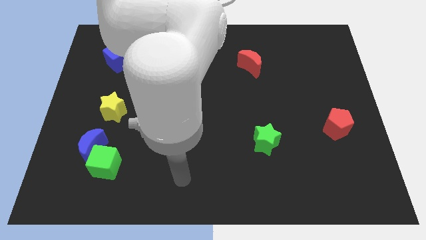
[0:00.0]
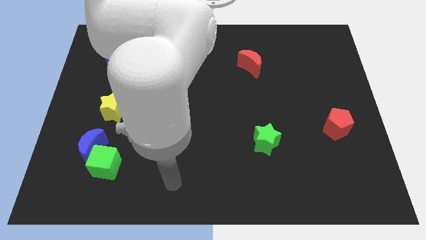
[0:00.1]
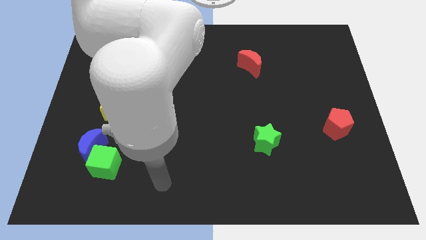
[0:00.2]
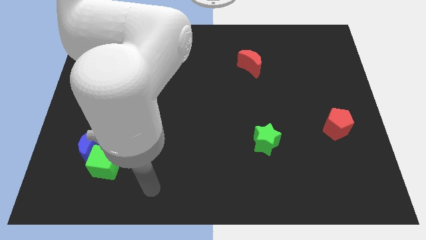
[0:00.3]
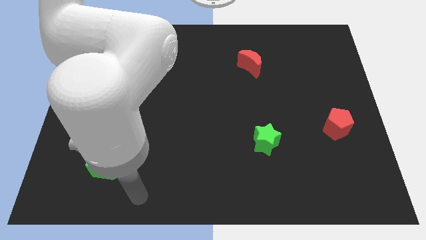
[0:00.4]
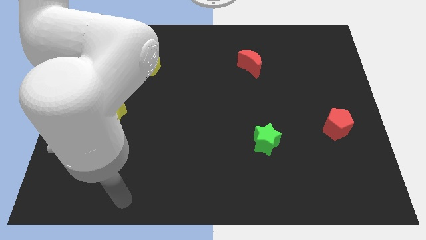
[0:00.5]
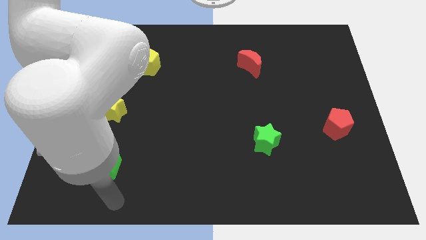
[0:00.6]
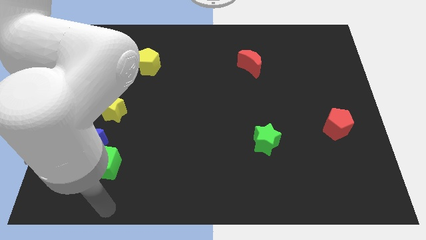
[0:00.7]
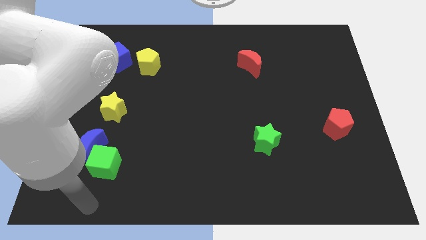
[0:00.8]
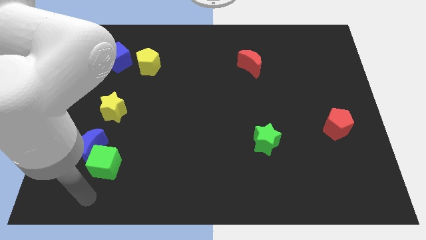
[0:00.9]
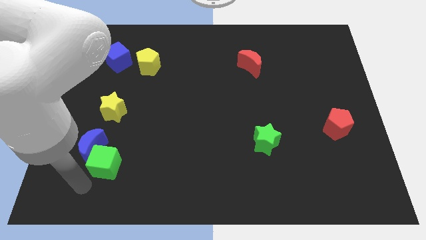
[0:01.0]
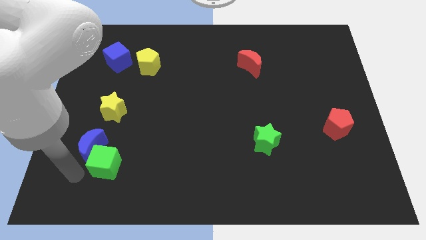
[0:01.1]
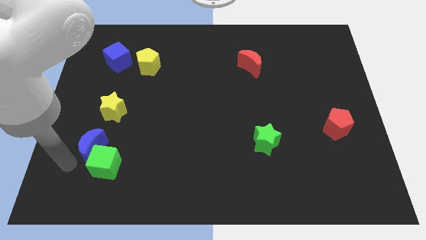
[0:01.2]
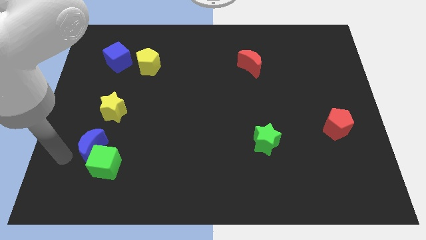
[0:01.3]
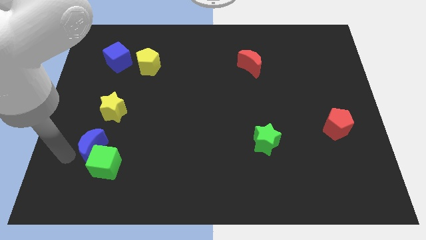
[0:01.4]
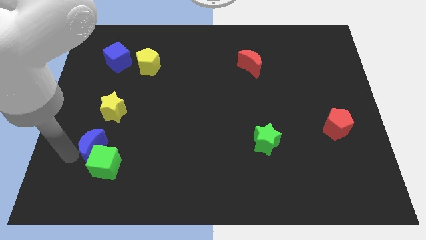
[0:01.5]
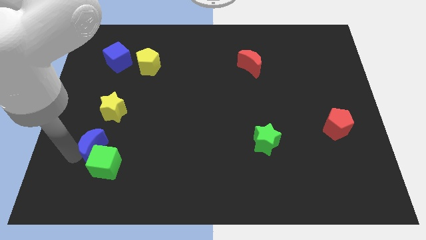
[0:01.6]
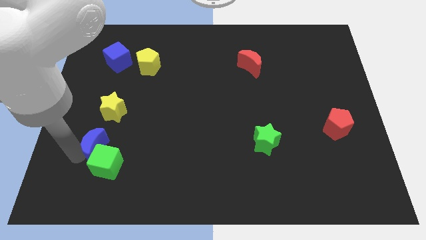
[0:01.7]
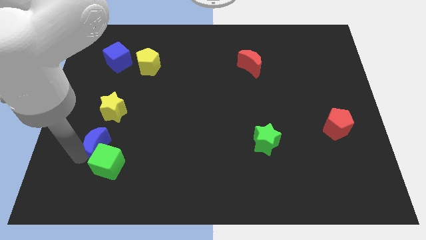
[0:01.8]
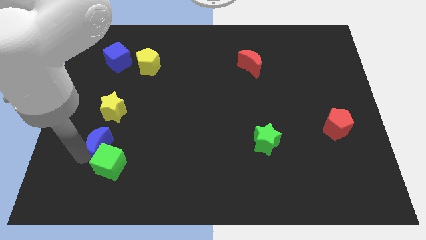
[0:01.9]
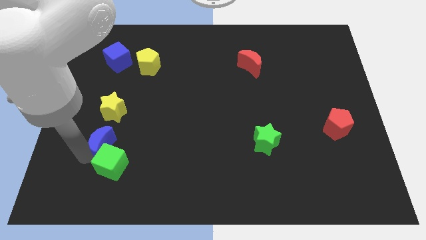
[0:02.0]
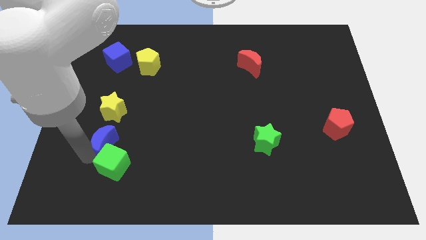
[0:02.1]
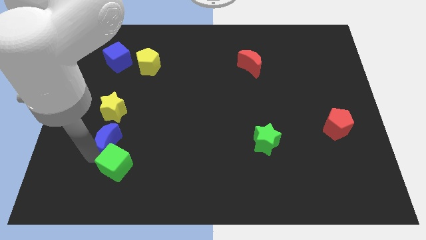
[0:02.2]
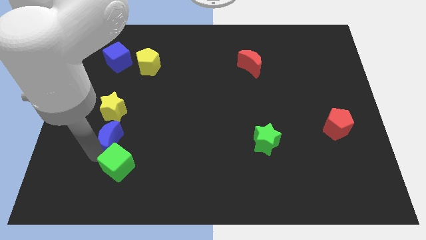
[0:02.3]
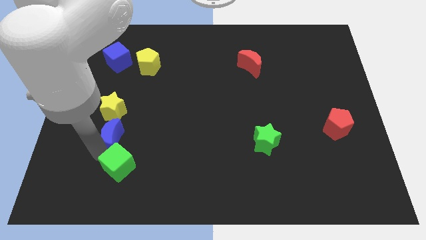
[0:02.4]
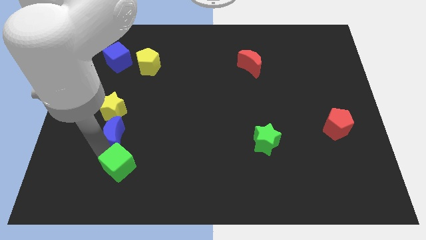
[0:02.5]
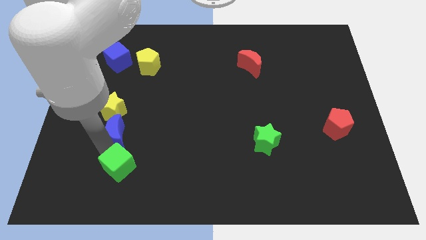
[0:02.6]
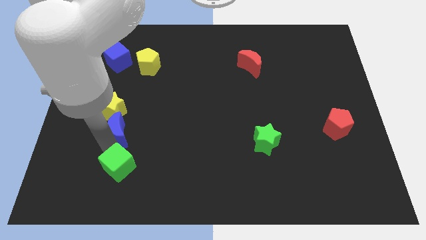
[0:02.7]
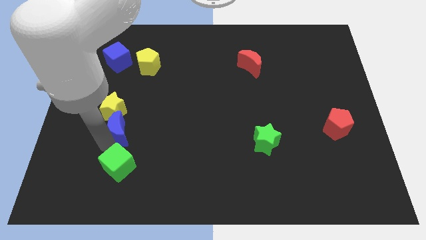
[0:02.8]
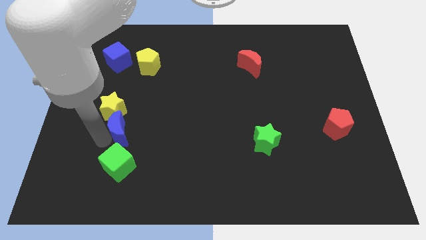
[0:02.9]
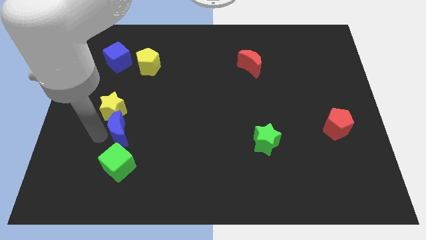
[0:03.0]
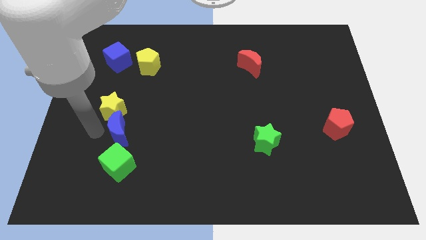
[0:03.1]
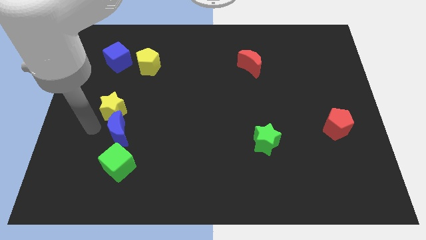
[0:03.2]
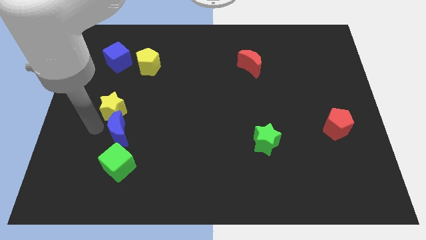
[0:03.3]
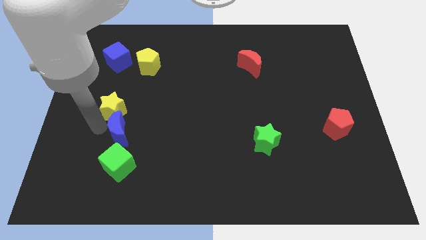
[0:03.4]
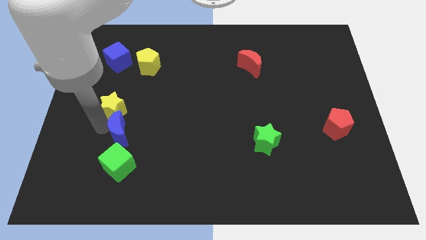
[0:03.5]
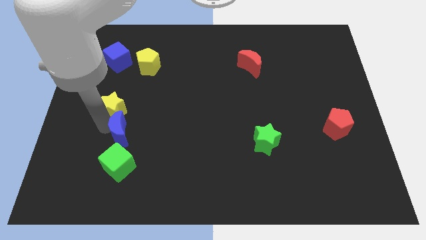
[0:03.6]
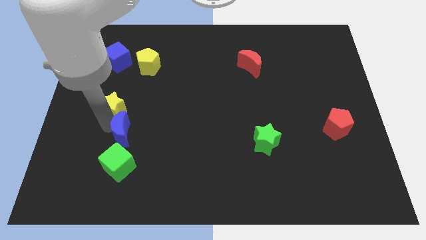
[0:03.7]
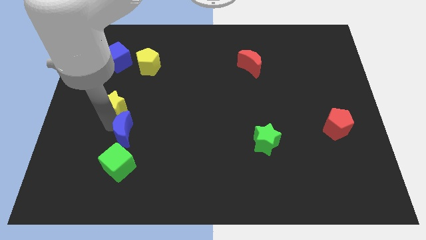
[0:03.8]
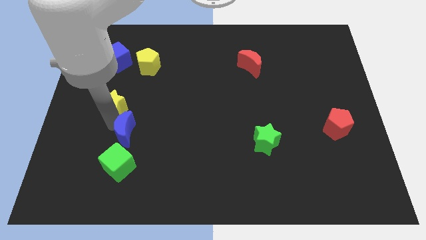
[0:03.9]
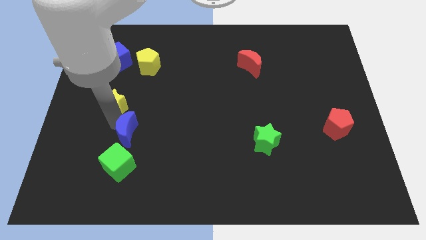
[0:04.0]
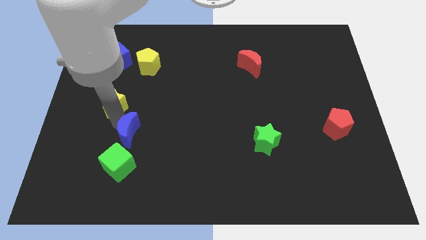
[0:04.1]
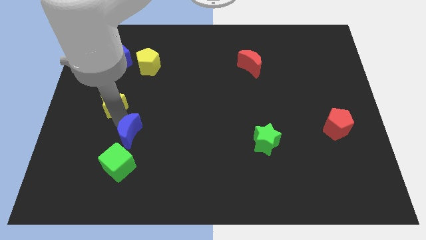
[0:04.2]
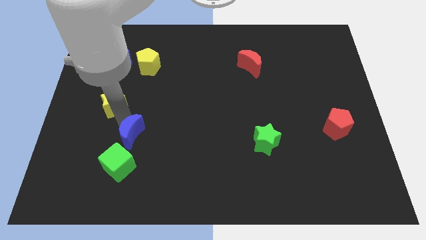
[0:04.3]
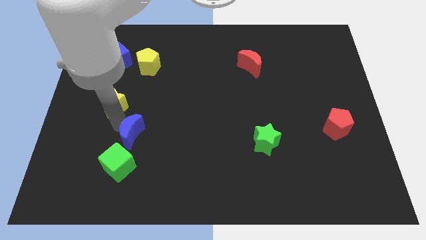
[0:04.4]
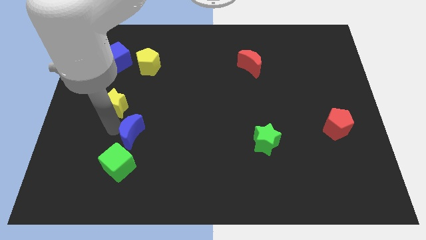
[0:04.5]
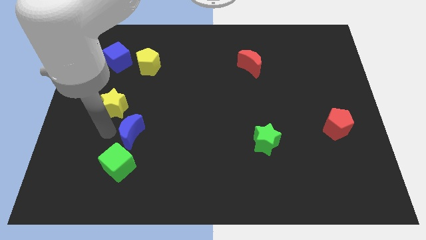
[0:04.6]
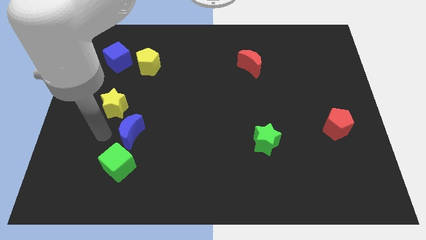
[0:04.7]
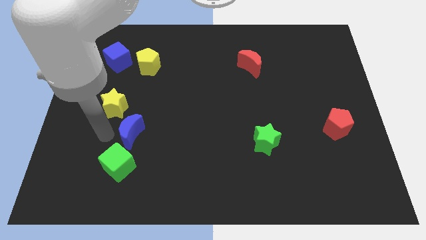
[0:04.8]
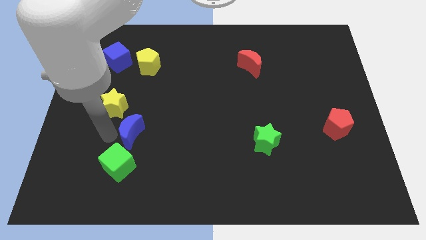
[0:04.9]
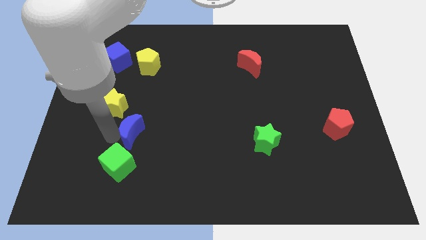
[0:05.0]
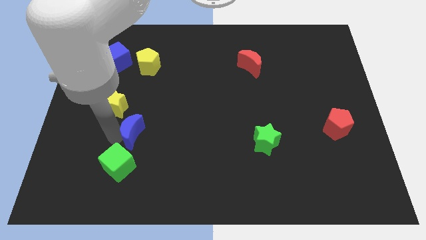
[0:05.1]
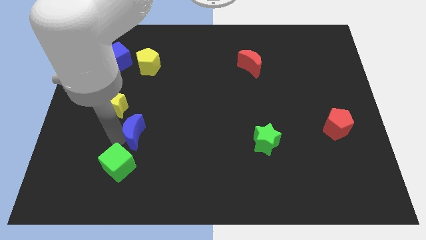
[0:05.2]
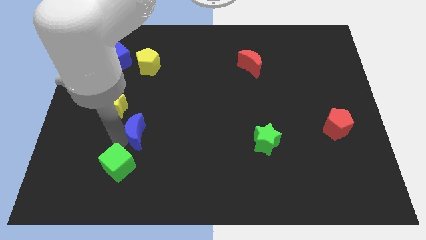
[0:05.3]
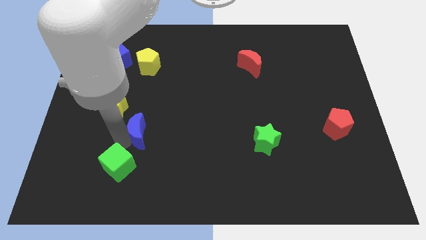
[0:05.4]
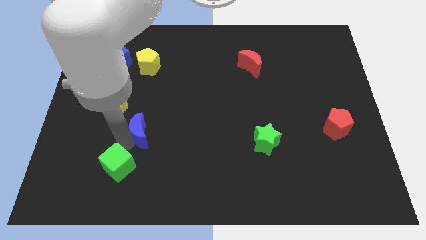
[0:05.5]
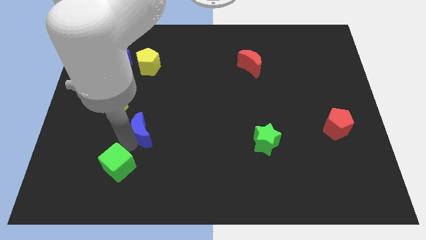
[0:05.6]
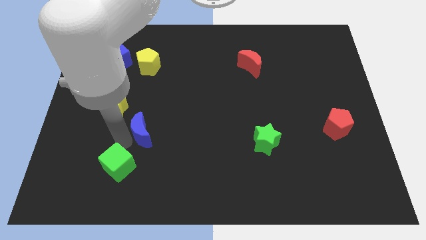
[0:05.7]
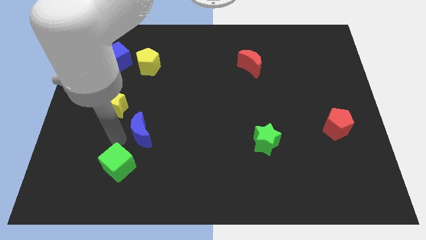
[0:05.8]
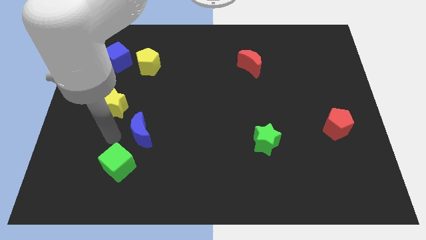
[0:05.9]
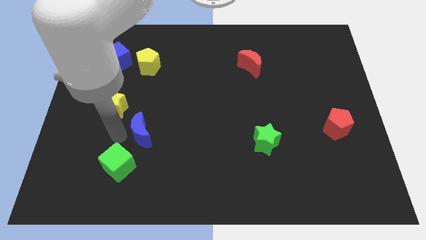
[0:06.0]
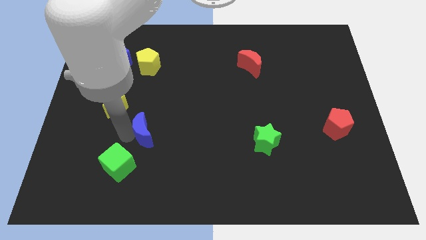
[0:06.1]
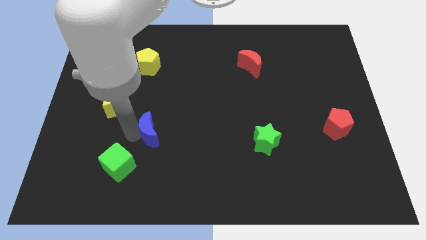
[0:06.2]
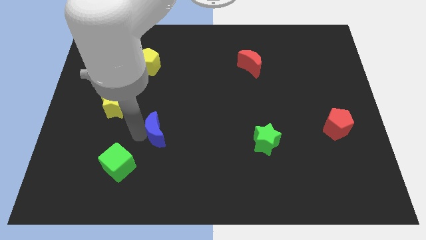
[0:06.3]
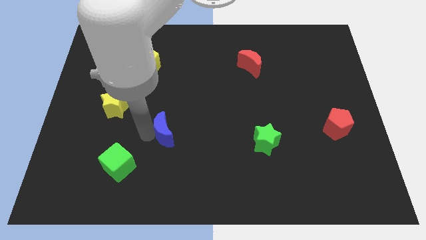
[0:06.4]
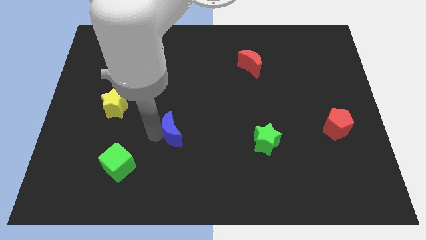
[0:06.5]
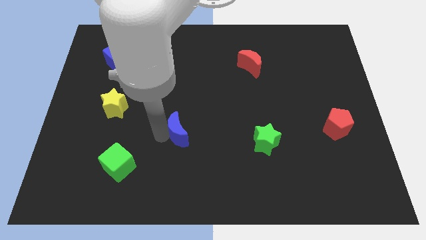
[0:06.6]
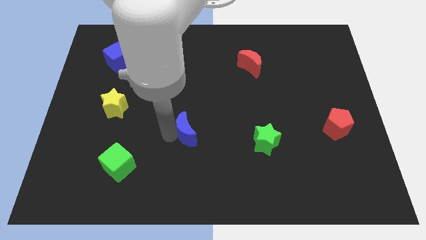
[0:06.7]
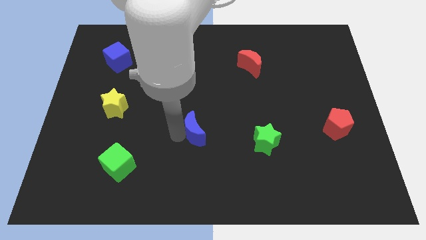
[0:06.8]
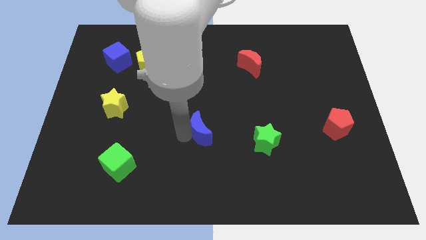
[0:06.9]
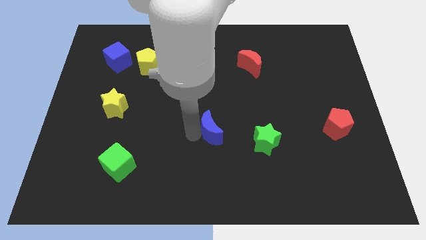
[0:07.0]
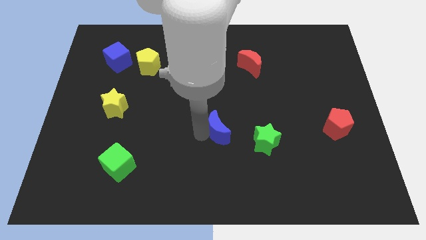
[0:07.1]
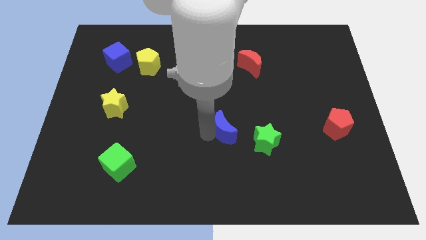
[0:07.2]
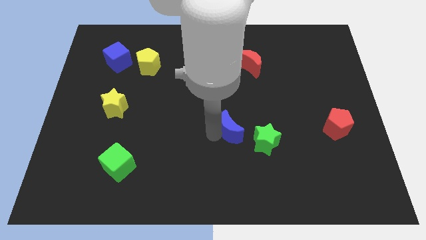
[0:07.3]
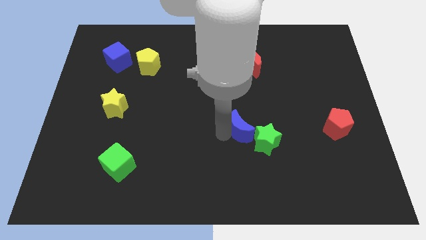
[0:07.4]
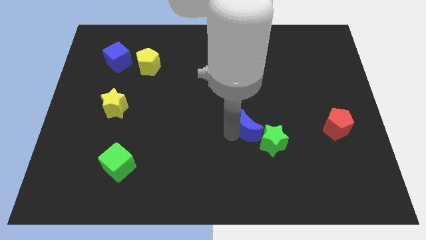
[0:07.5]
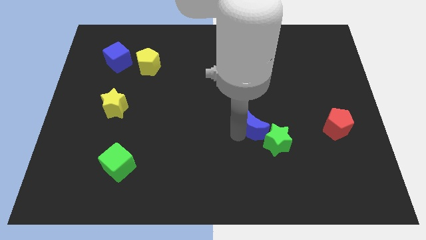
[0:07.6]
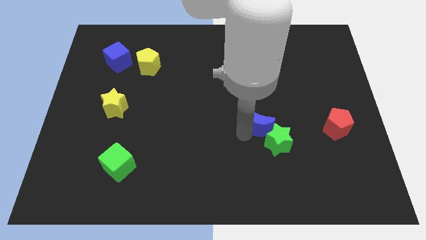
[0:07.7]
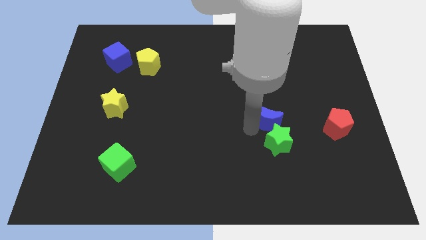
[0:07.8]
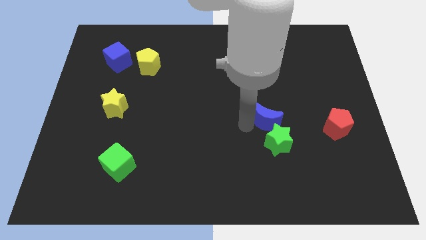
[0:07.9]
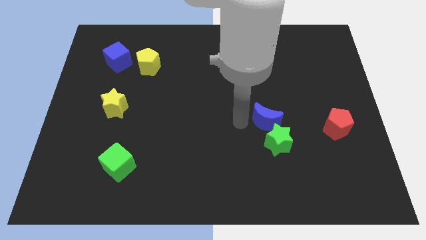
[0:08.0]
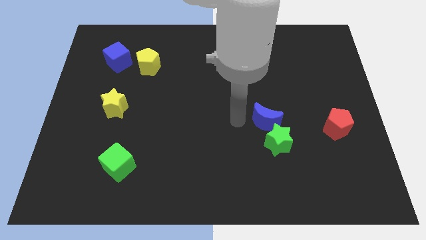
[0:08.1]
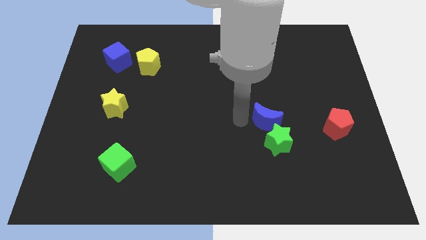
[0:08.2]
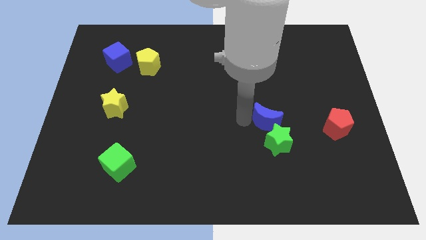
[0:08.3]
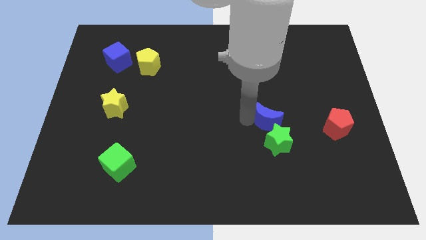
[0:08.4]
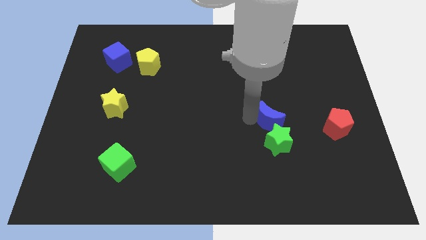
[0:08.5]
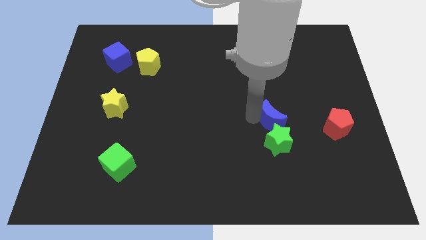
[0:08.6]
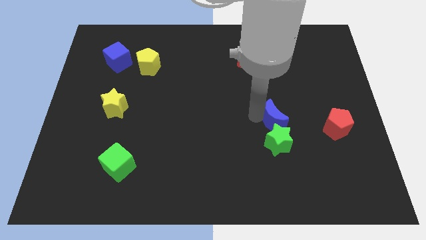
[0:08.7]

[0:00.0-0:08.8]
slide the blue moon to the top right side of the green star
